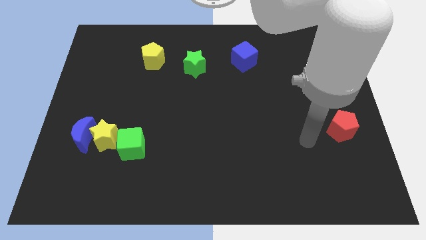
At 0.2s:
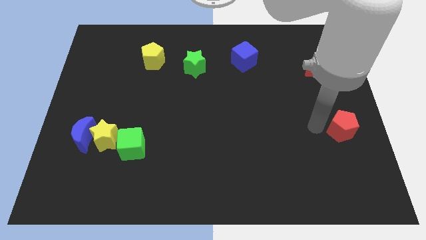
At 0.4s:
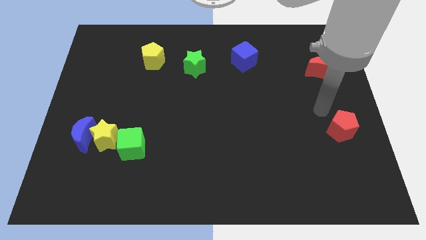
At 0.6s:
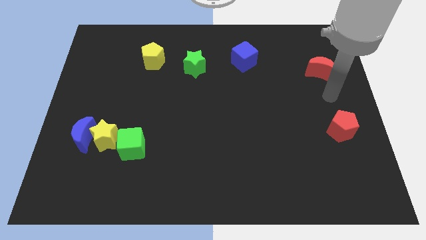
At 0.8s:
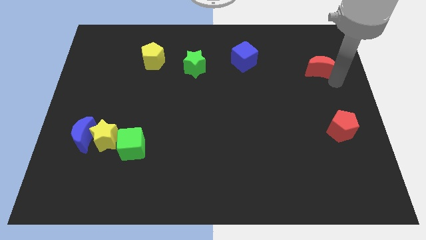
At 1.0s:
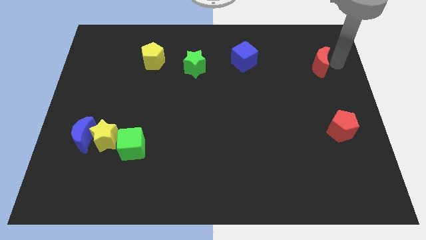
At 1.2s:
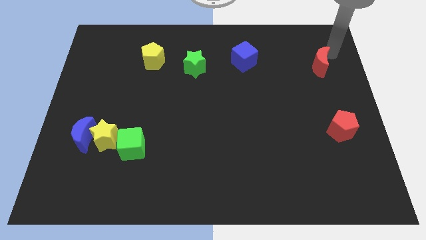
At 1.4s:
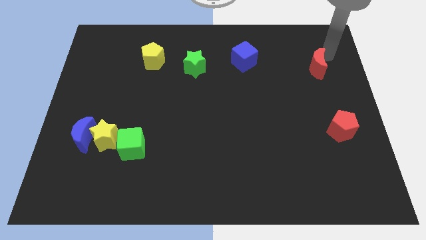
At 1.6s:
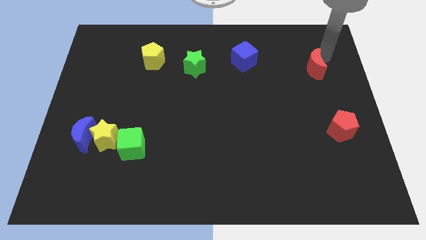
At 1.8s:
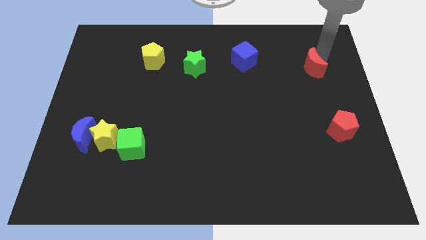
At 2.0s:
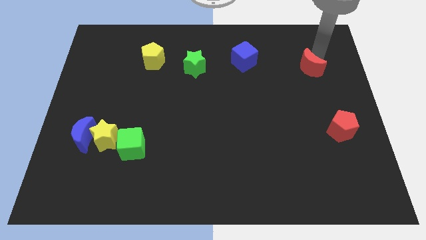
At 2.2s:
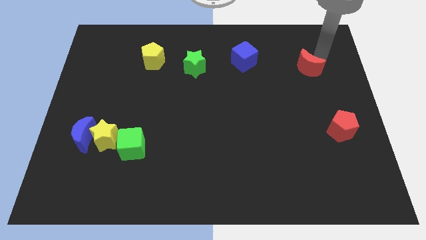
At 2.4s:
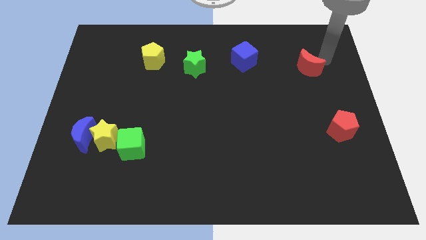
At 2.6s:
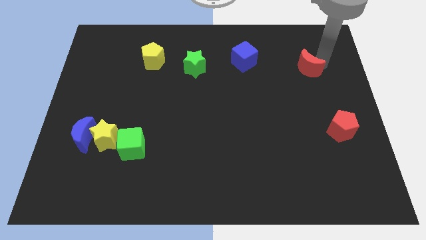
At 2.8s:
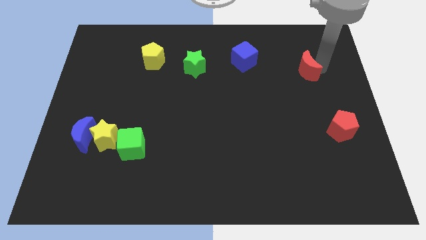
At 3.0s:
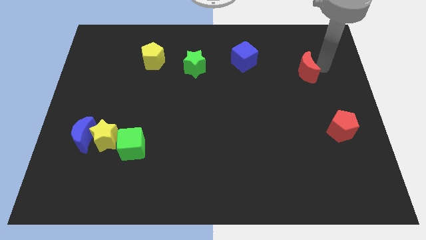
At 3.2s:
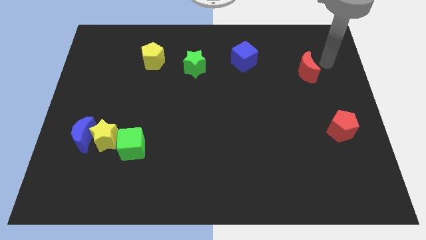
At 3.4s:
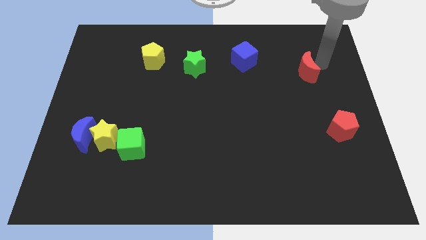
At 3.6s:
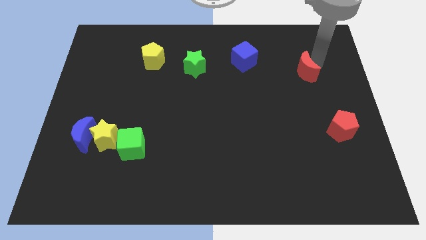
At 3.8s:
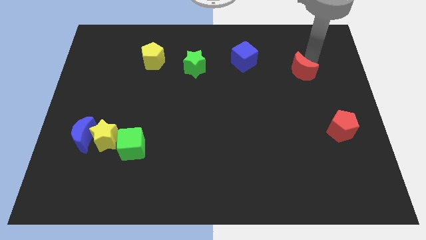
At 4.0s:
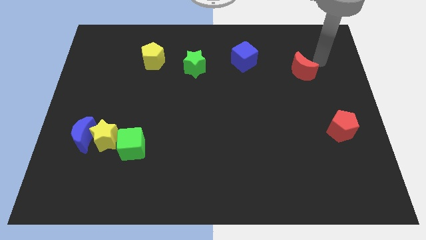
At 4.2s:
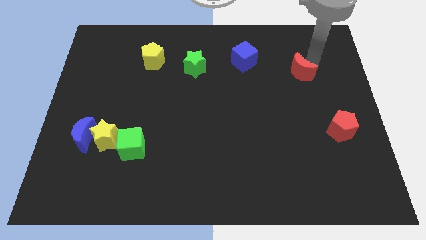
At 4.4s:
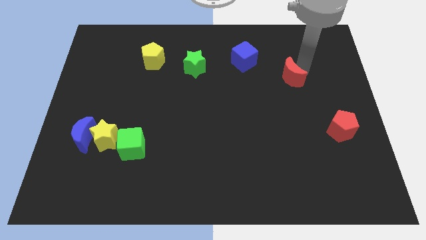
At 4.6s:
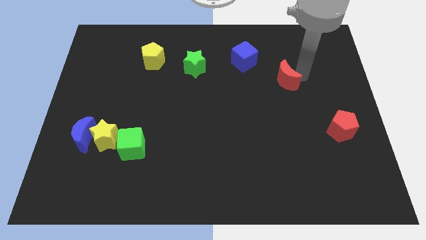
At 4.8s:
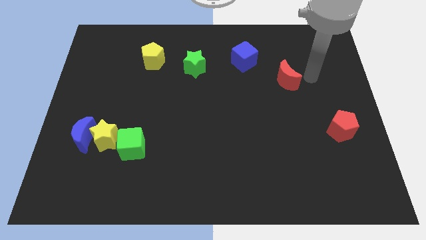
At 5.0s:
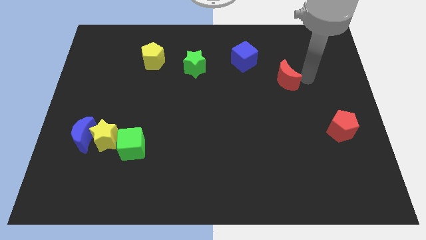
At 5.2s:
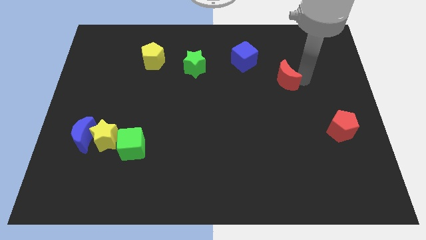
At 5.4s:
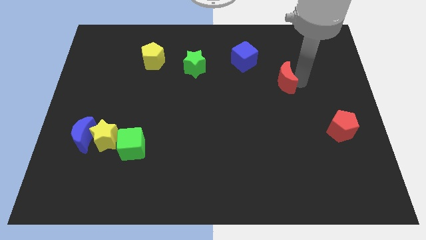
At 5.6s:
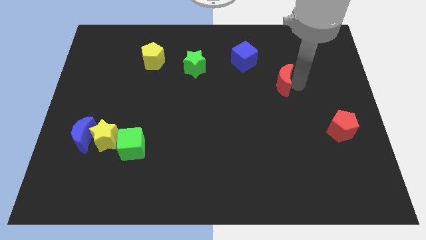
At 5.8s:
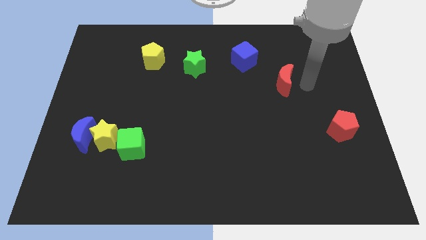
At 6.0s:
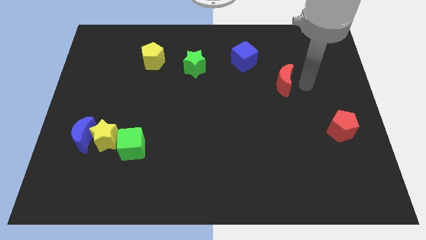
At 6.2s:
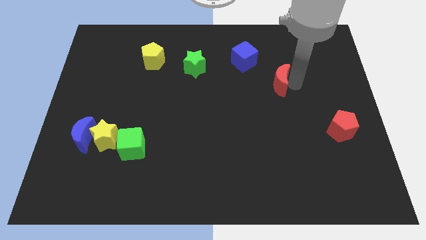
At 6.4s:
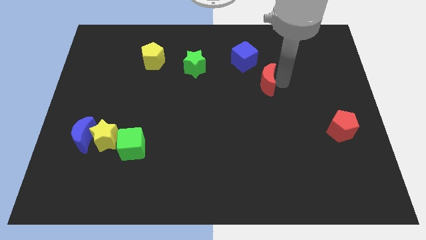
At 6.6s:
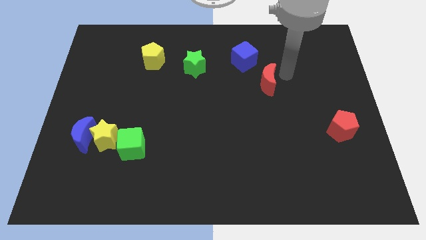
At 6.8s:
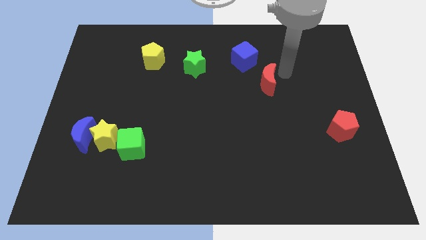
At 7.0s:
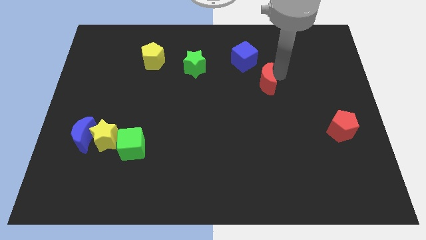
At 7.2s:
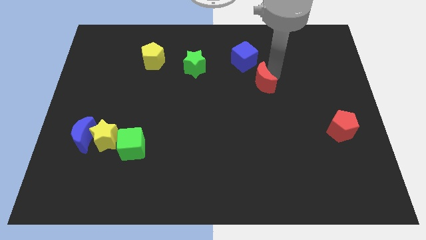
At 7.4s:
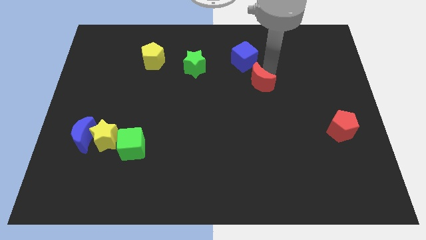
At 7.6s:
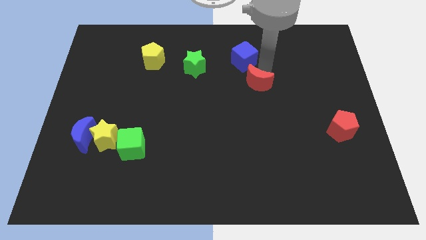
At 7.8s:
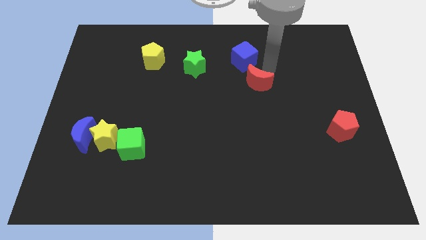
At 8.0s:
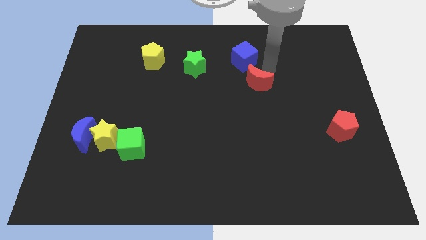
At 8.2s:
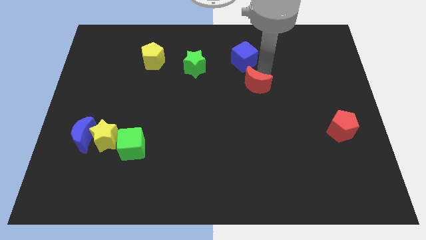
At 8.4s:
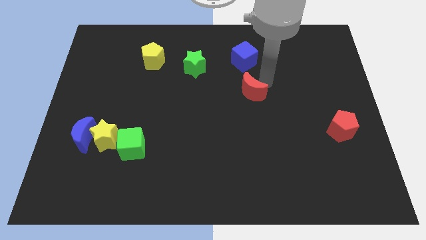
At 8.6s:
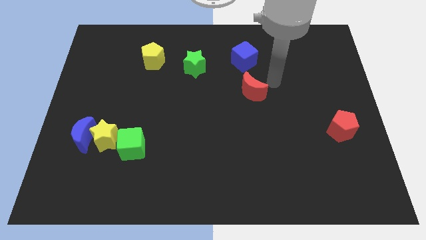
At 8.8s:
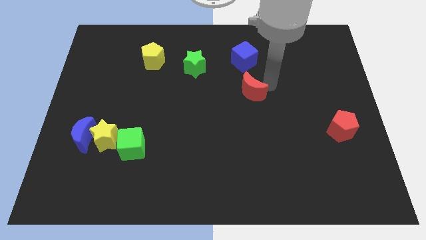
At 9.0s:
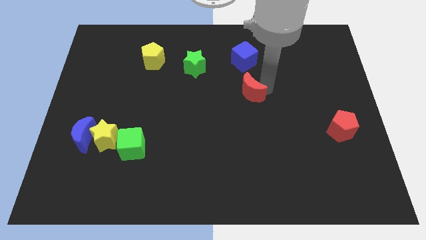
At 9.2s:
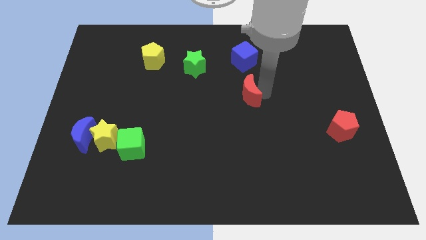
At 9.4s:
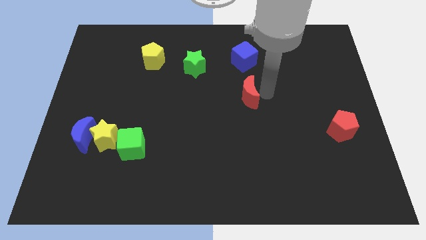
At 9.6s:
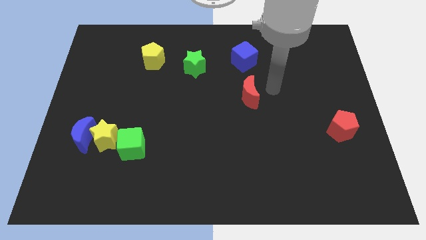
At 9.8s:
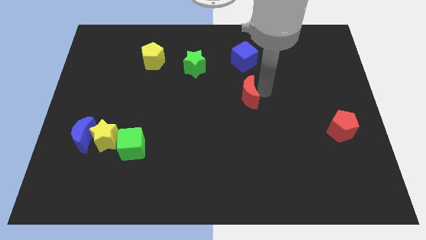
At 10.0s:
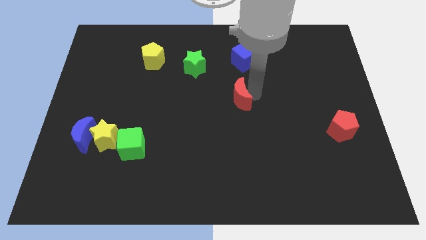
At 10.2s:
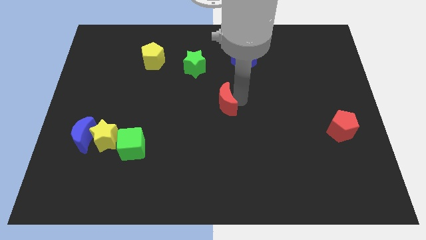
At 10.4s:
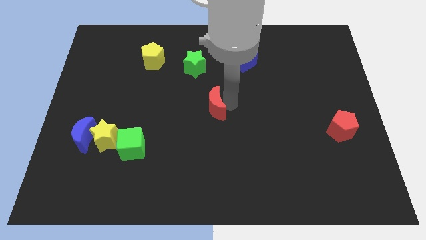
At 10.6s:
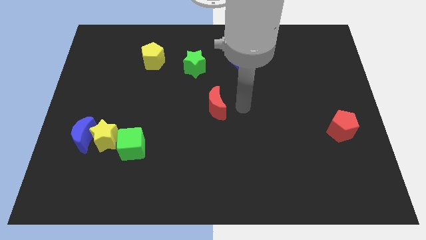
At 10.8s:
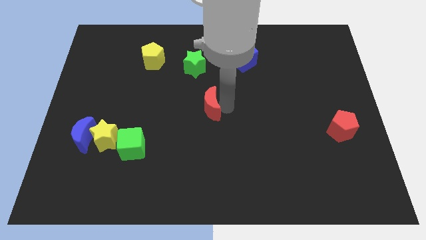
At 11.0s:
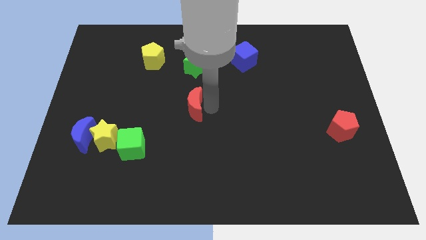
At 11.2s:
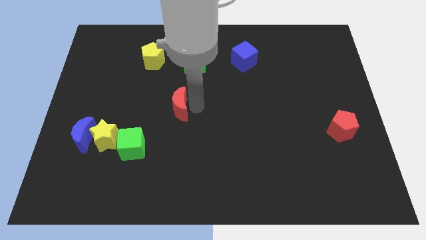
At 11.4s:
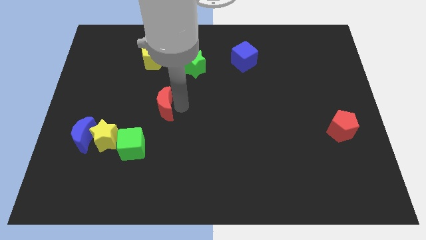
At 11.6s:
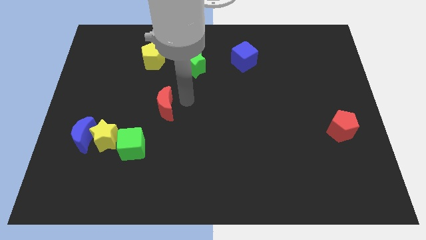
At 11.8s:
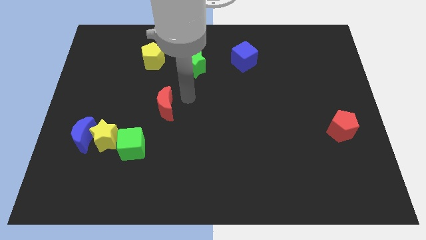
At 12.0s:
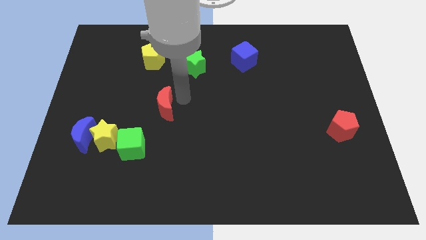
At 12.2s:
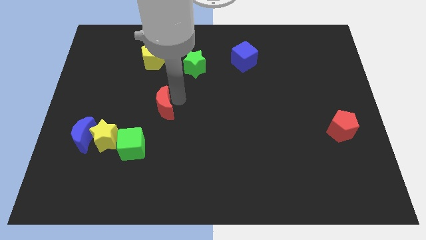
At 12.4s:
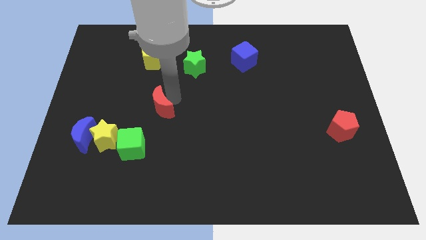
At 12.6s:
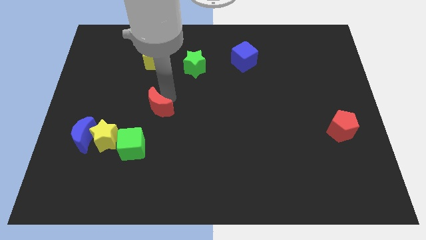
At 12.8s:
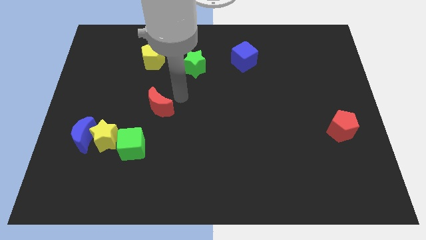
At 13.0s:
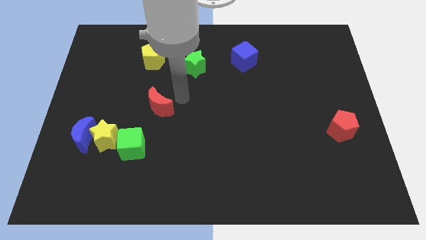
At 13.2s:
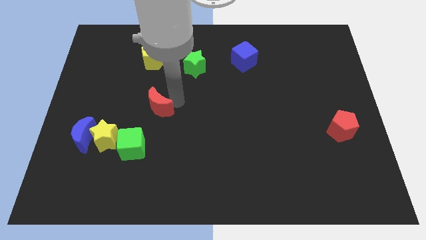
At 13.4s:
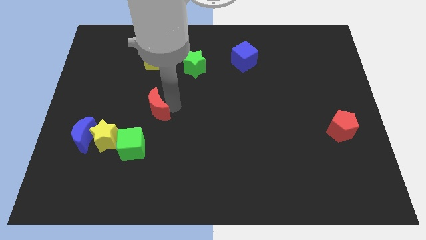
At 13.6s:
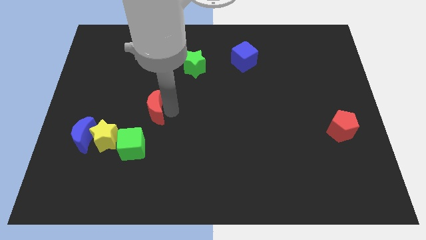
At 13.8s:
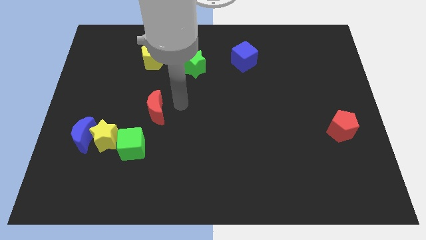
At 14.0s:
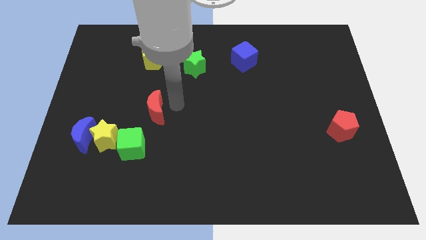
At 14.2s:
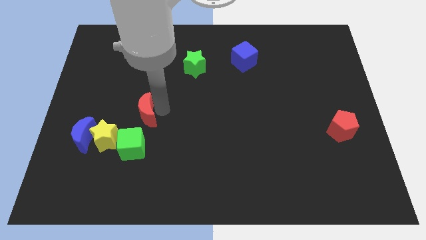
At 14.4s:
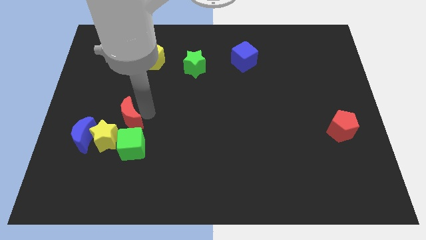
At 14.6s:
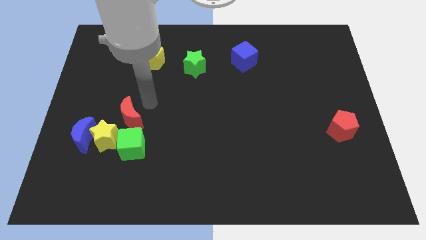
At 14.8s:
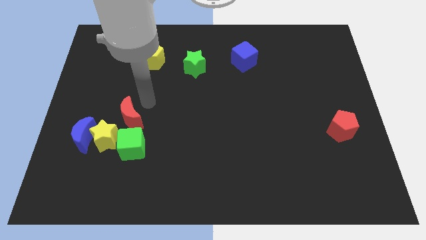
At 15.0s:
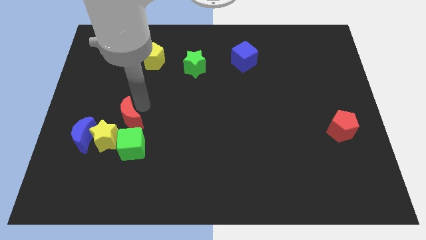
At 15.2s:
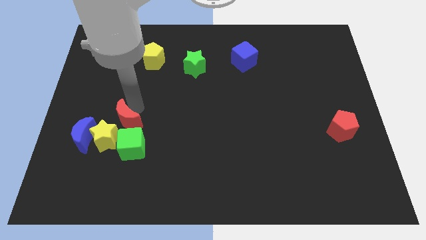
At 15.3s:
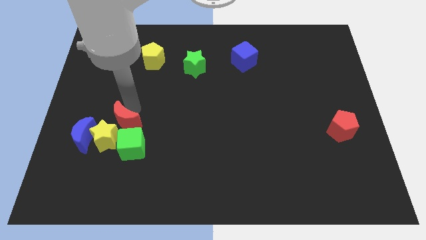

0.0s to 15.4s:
move the red moon next to the yellow star
